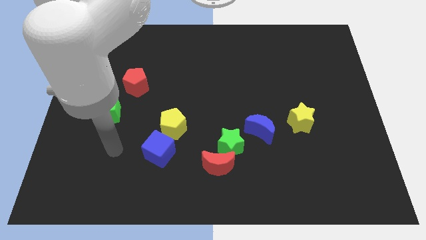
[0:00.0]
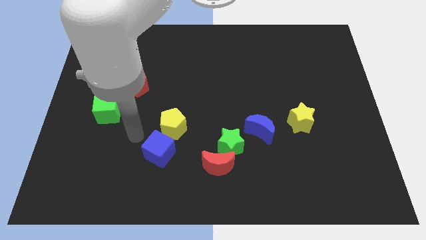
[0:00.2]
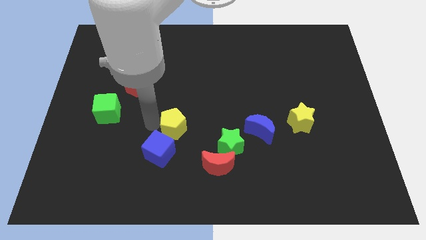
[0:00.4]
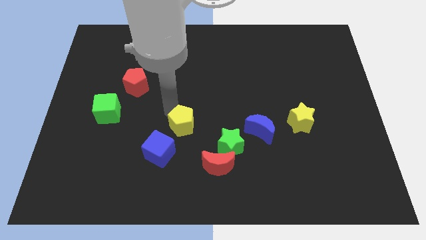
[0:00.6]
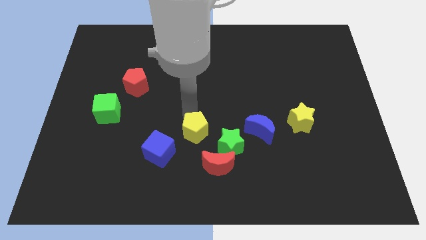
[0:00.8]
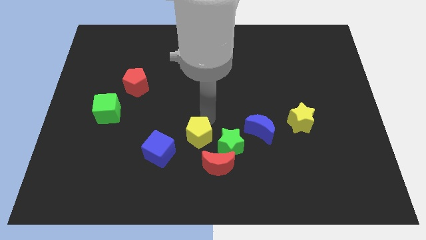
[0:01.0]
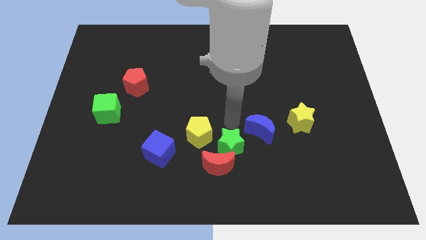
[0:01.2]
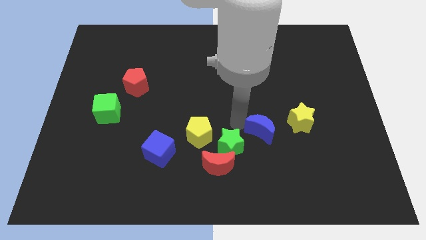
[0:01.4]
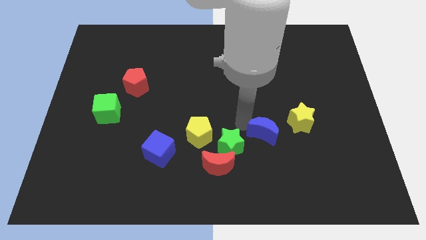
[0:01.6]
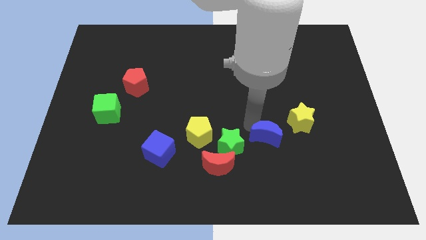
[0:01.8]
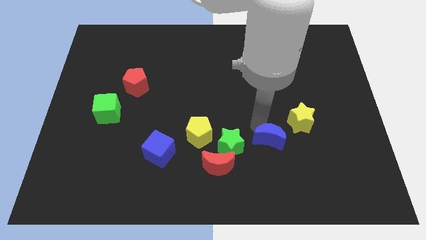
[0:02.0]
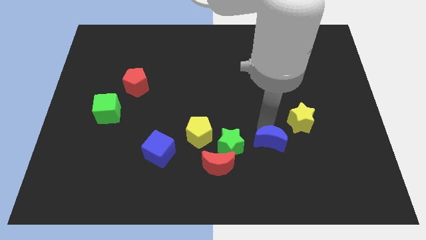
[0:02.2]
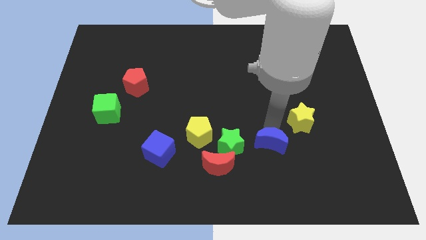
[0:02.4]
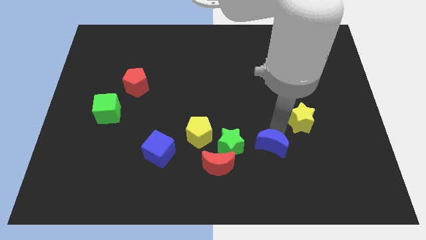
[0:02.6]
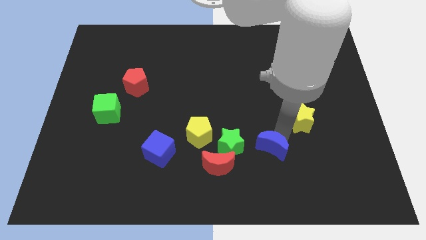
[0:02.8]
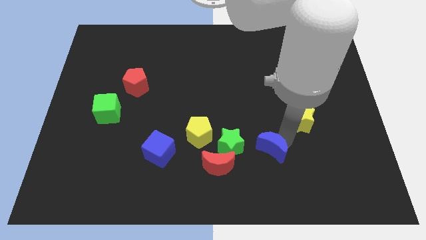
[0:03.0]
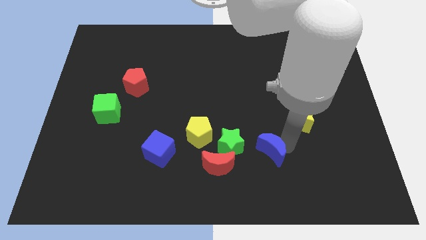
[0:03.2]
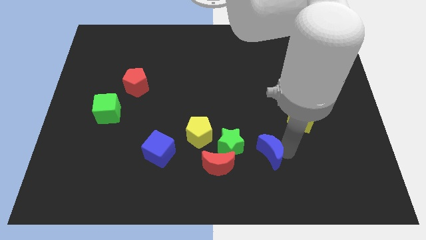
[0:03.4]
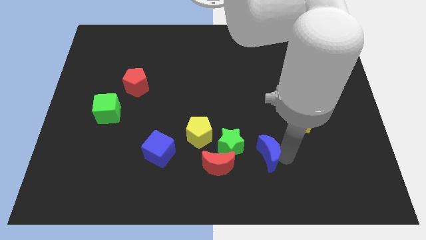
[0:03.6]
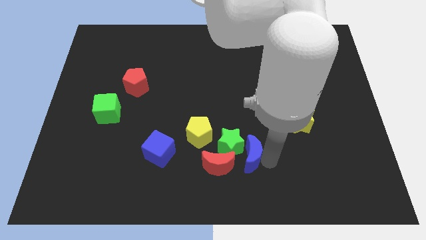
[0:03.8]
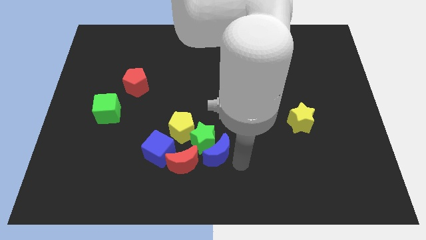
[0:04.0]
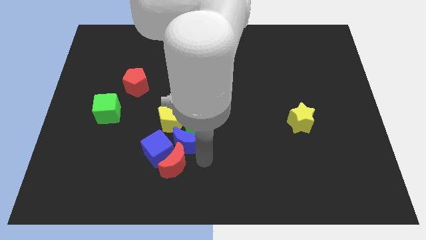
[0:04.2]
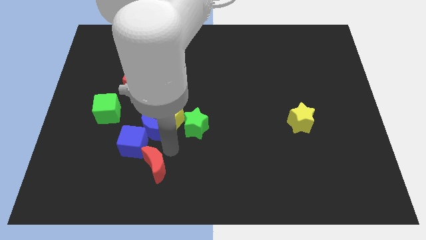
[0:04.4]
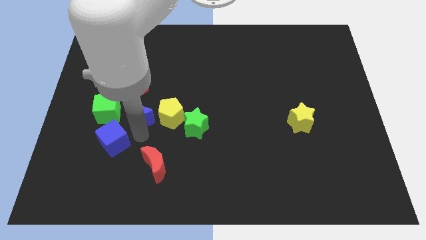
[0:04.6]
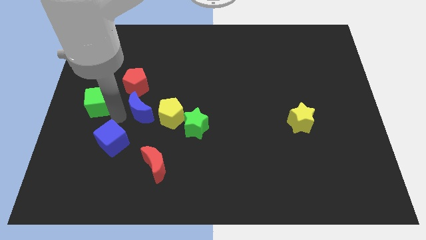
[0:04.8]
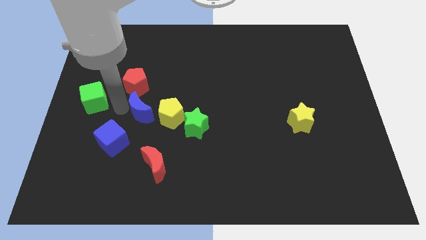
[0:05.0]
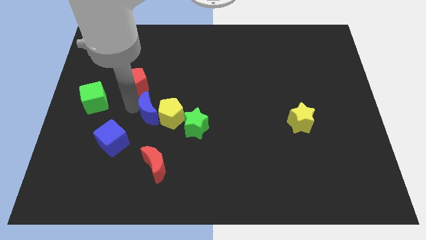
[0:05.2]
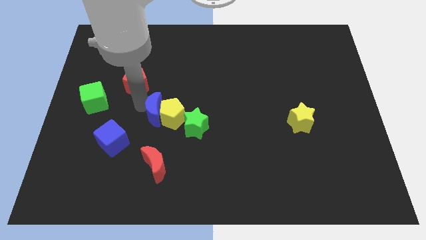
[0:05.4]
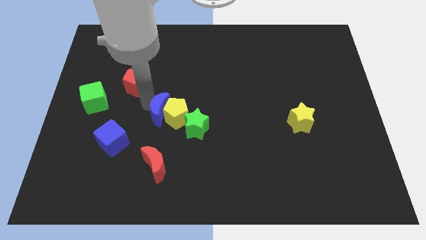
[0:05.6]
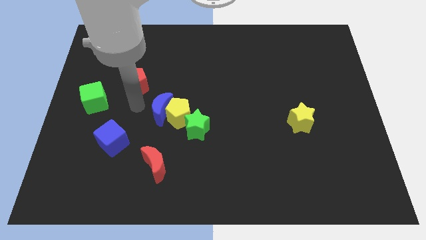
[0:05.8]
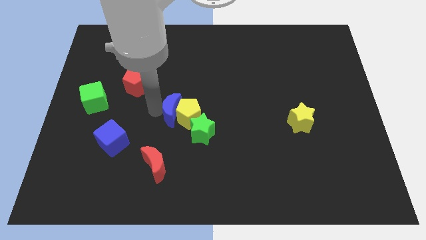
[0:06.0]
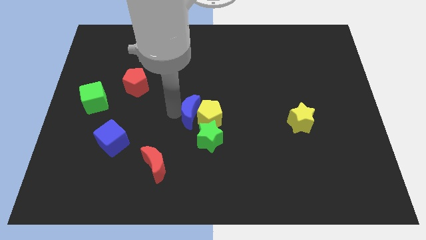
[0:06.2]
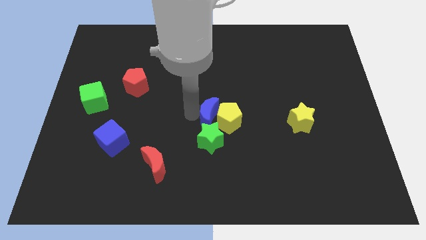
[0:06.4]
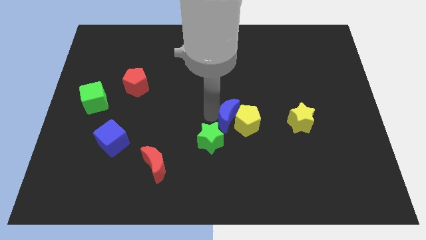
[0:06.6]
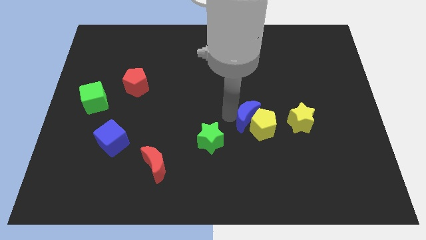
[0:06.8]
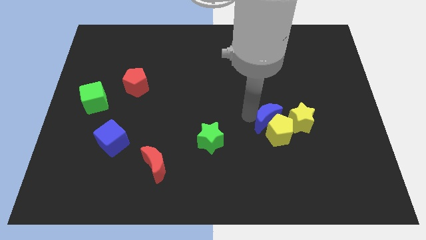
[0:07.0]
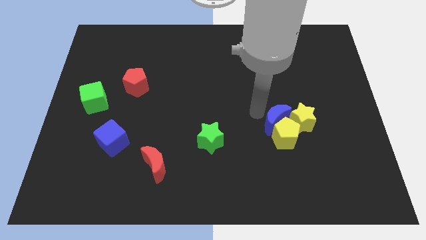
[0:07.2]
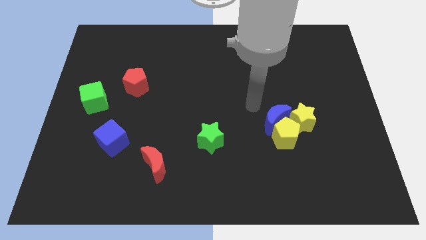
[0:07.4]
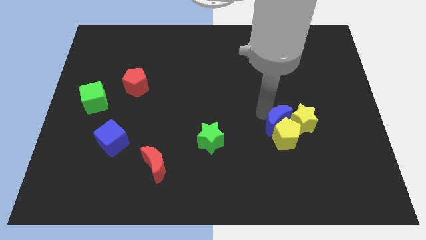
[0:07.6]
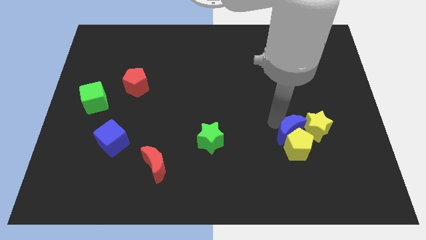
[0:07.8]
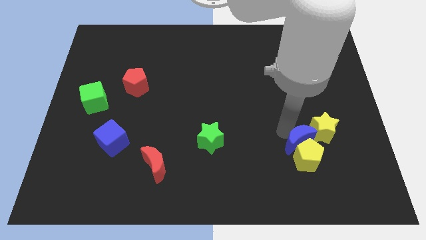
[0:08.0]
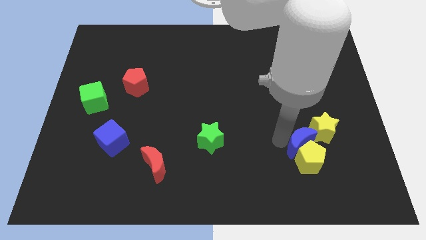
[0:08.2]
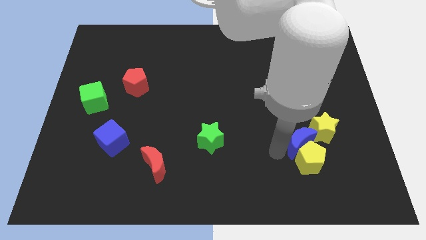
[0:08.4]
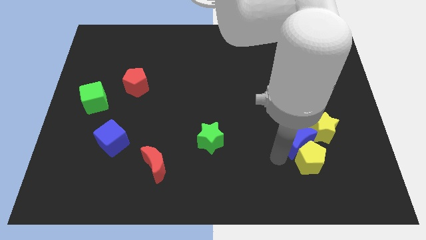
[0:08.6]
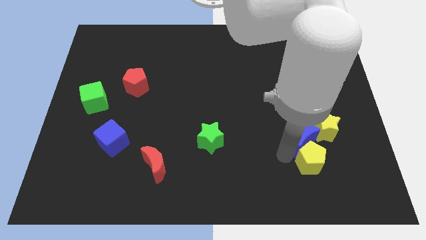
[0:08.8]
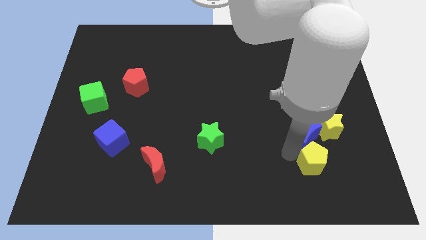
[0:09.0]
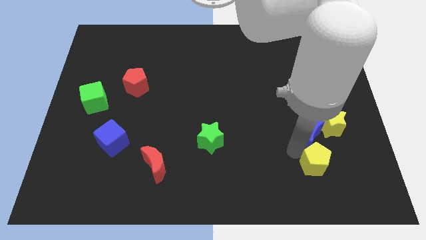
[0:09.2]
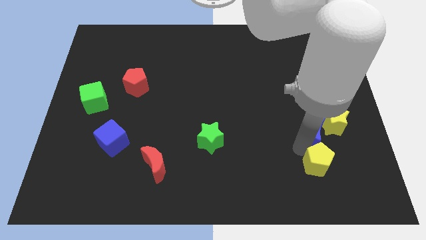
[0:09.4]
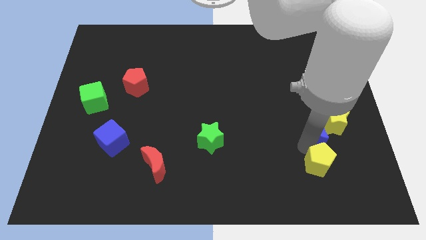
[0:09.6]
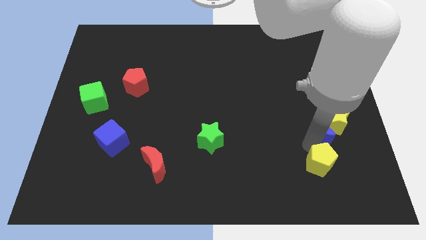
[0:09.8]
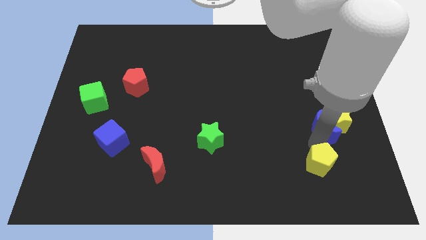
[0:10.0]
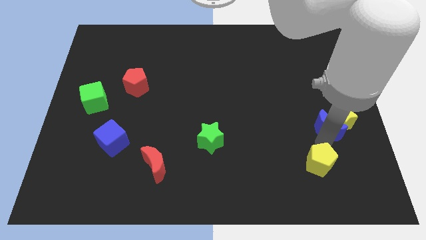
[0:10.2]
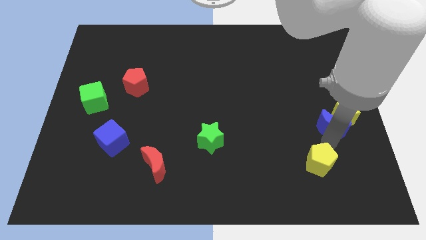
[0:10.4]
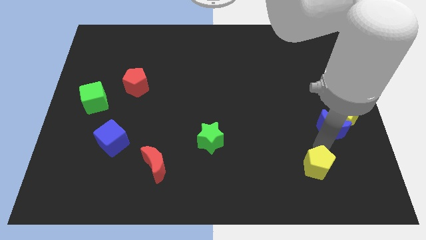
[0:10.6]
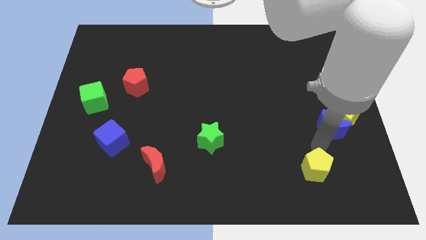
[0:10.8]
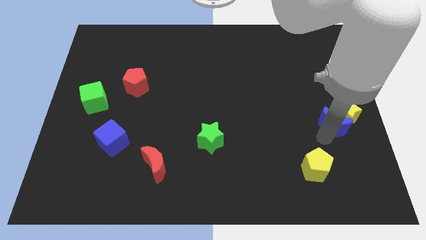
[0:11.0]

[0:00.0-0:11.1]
slide the blue moon to the right side
